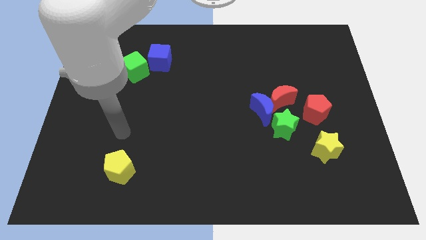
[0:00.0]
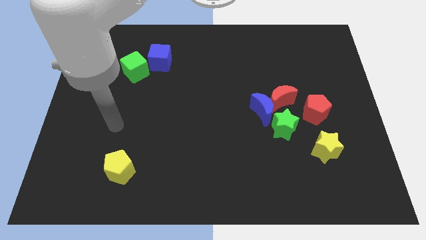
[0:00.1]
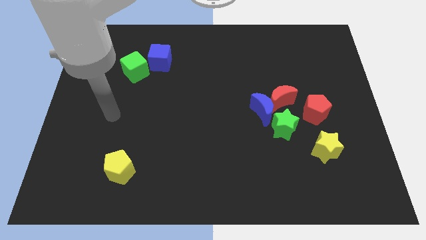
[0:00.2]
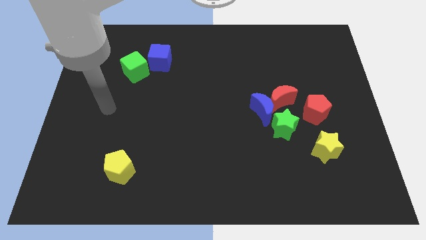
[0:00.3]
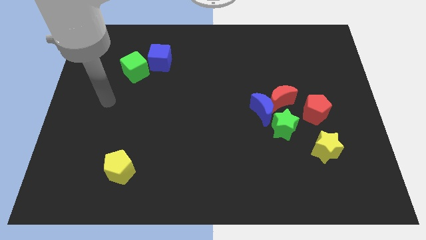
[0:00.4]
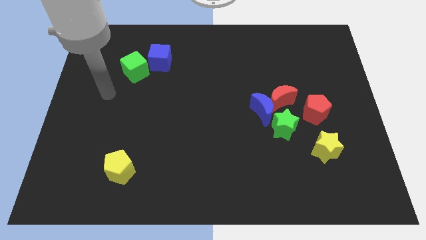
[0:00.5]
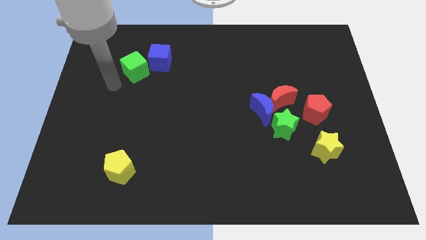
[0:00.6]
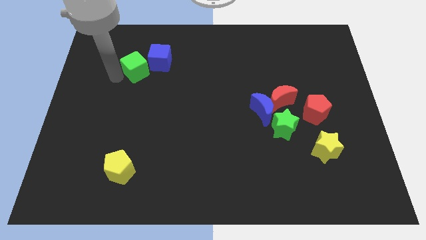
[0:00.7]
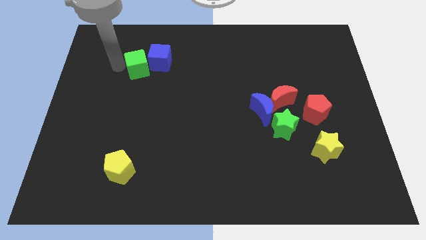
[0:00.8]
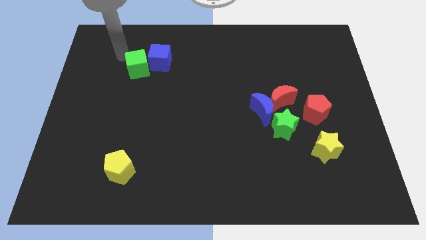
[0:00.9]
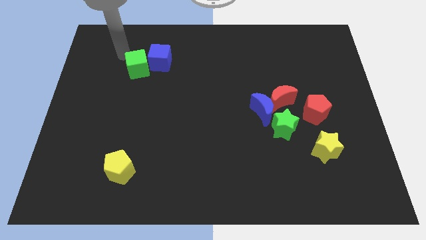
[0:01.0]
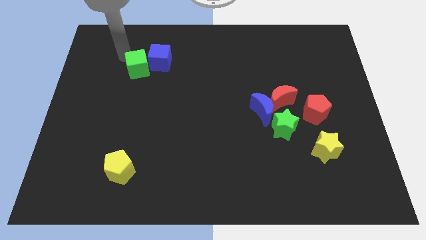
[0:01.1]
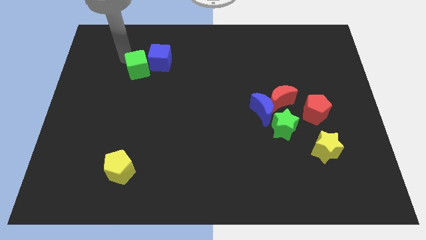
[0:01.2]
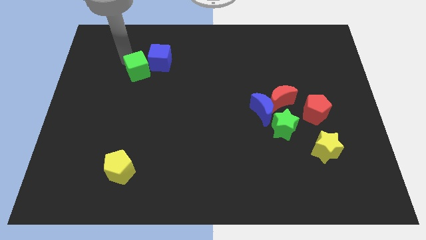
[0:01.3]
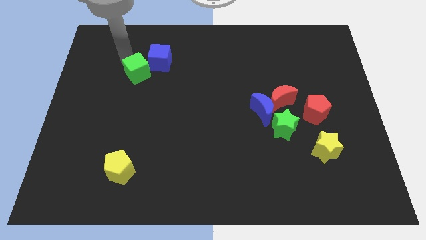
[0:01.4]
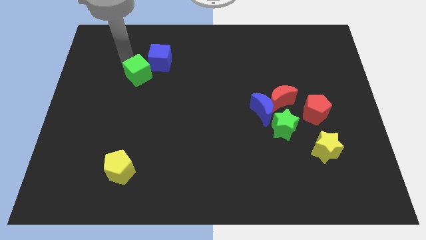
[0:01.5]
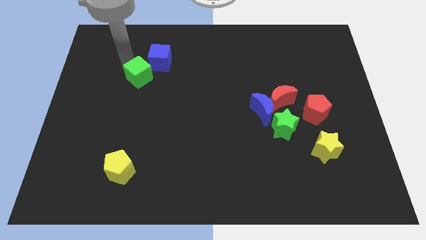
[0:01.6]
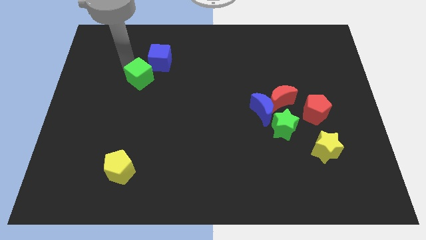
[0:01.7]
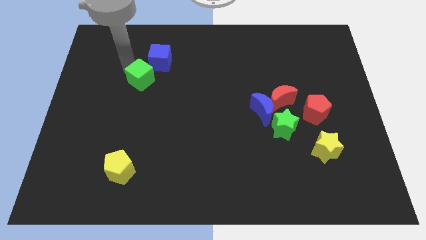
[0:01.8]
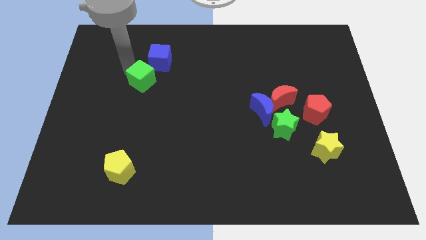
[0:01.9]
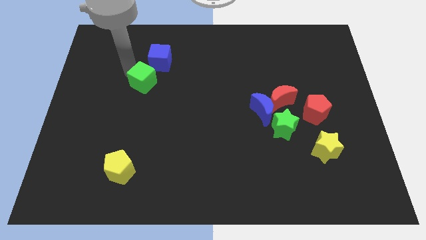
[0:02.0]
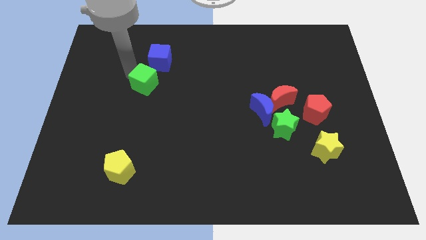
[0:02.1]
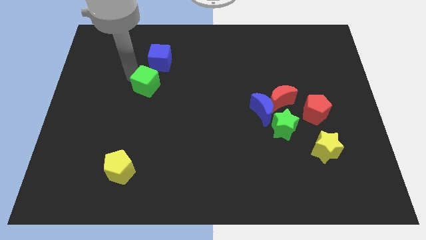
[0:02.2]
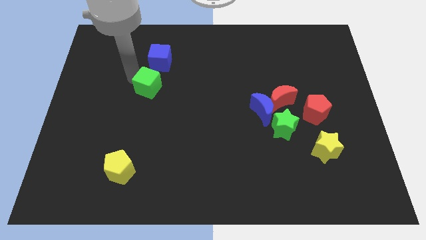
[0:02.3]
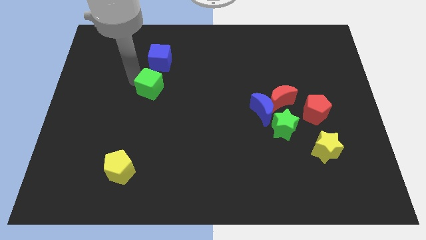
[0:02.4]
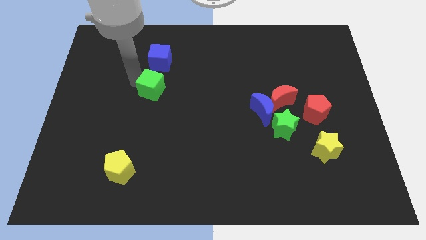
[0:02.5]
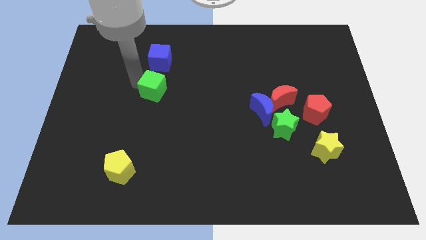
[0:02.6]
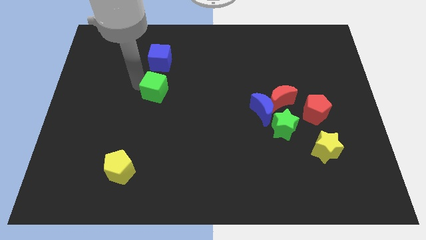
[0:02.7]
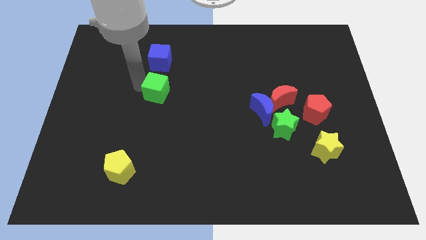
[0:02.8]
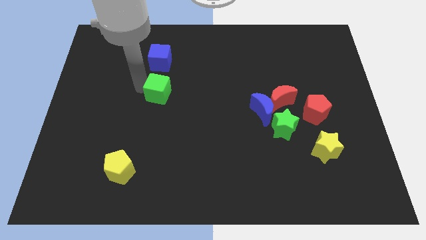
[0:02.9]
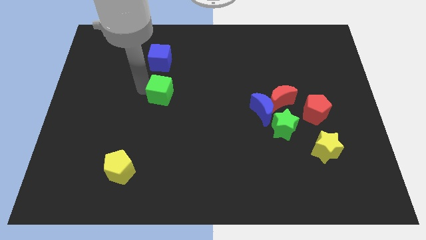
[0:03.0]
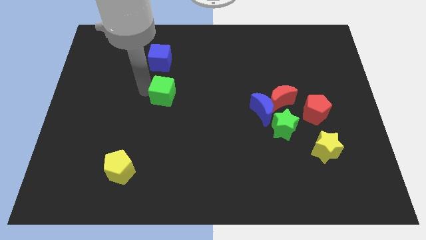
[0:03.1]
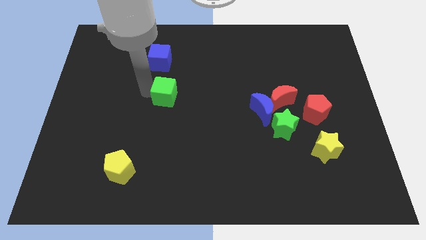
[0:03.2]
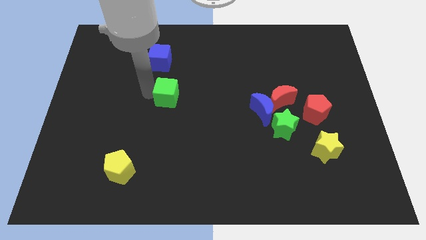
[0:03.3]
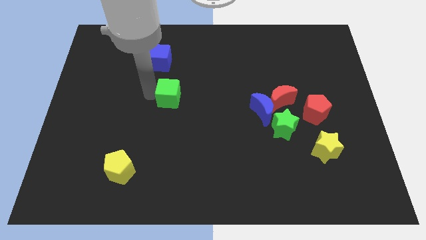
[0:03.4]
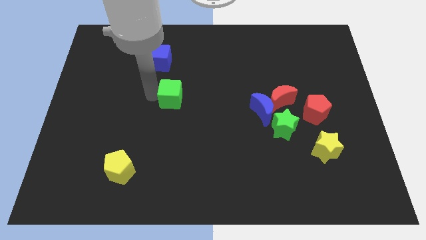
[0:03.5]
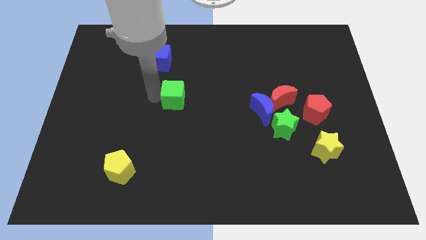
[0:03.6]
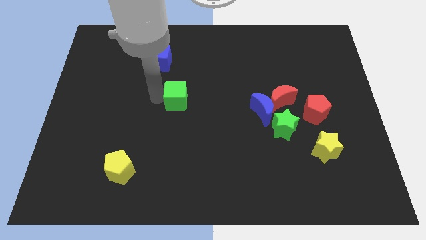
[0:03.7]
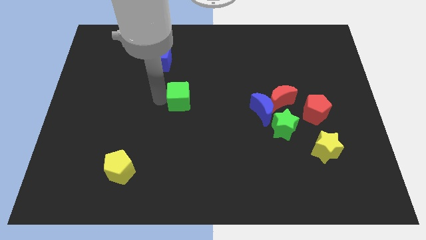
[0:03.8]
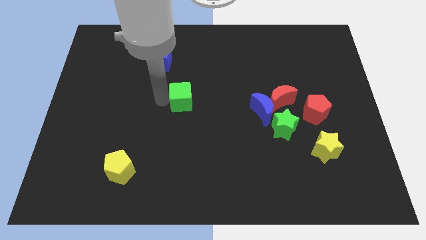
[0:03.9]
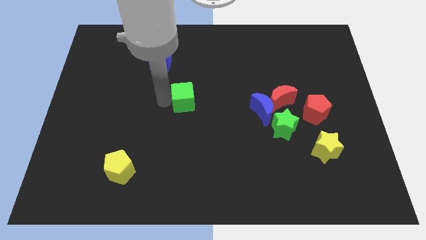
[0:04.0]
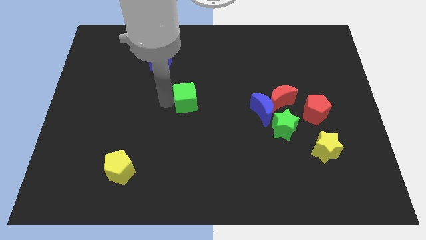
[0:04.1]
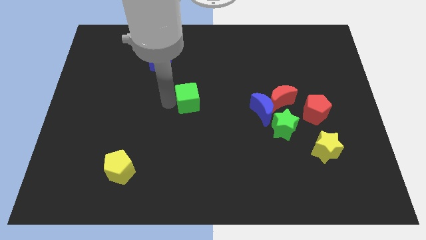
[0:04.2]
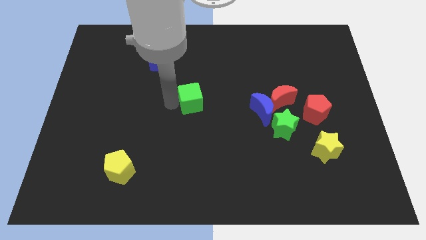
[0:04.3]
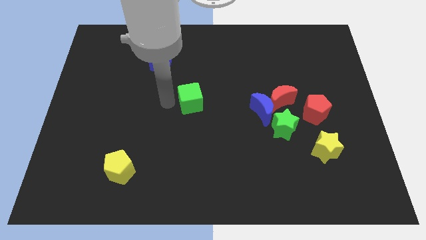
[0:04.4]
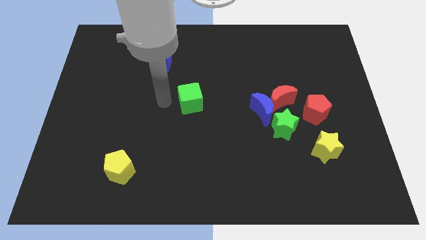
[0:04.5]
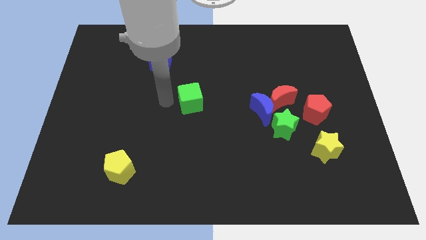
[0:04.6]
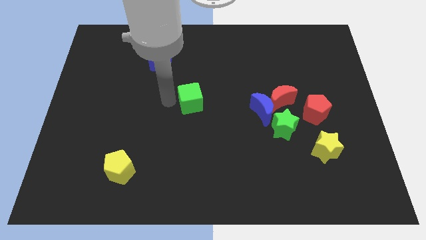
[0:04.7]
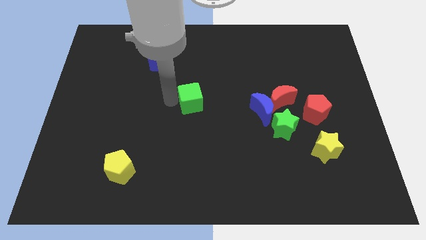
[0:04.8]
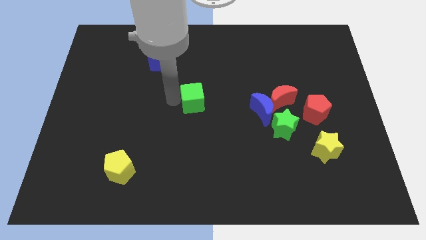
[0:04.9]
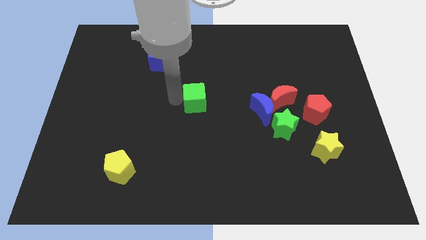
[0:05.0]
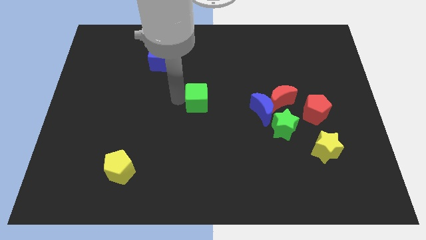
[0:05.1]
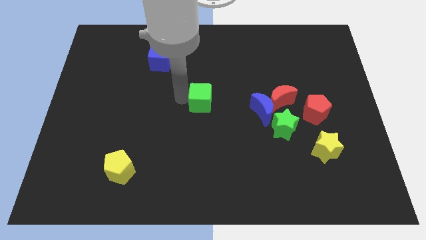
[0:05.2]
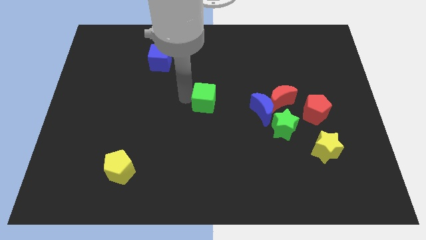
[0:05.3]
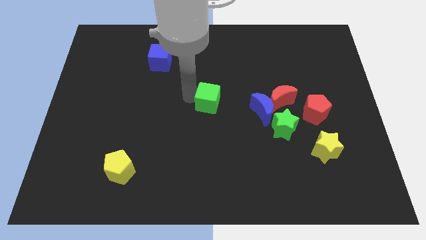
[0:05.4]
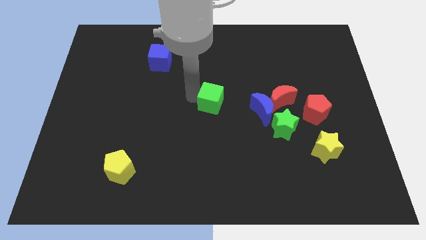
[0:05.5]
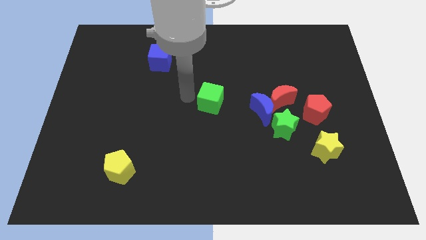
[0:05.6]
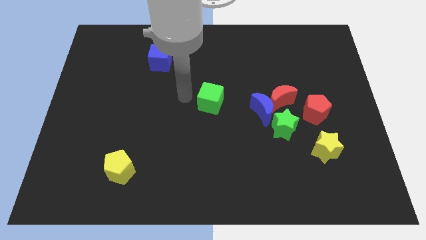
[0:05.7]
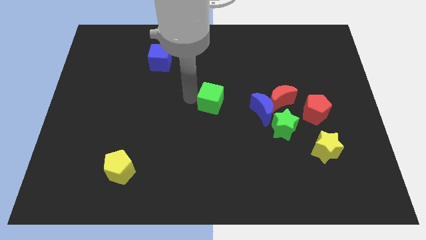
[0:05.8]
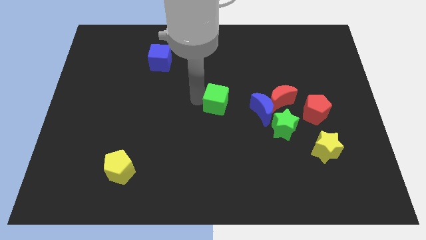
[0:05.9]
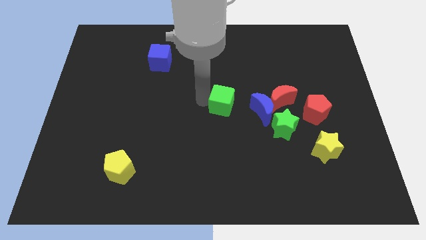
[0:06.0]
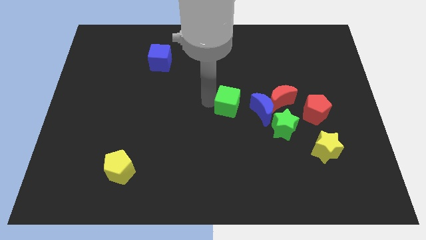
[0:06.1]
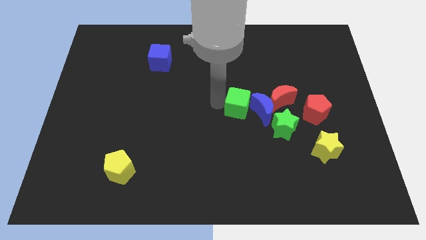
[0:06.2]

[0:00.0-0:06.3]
move the green cube close to the blue moon

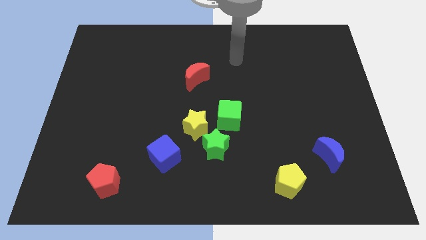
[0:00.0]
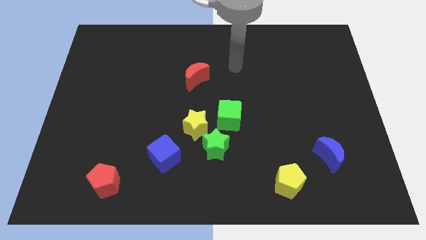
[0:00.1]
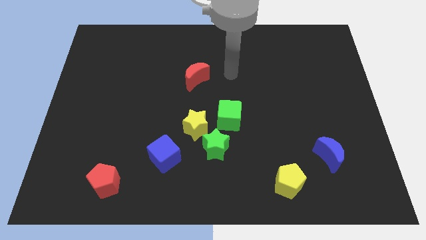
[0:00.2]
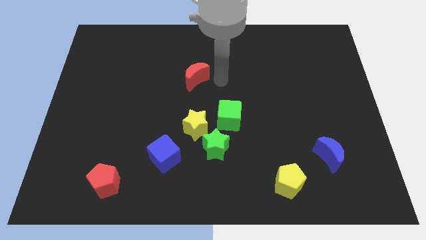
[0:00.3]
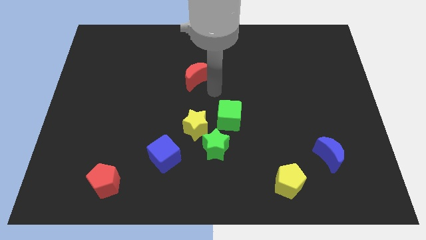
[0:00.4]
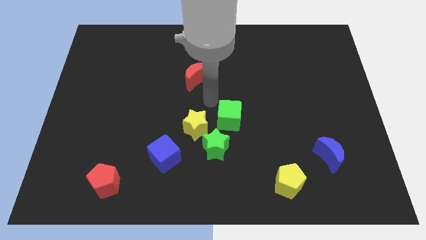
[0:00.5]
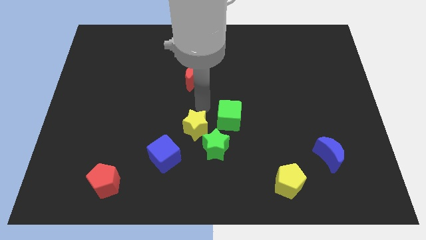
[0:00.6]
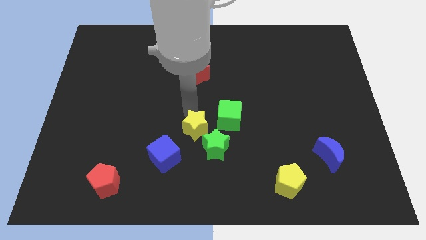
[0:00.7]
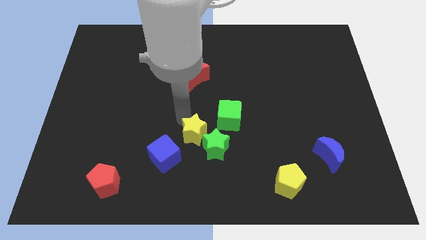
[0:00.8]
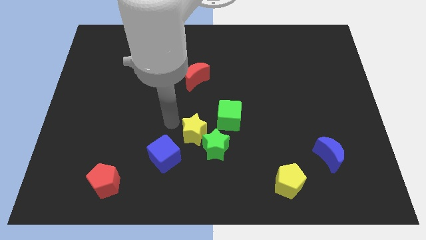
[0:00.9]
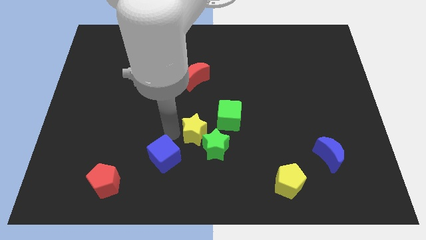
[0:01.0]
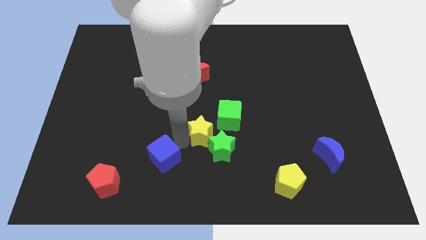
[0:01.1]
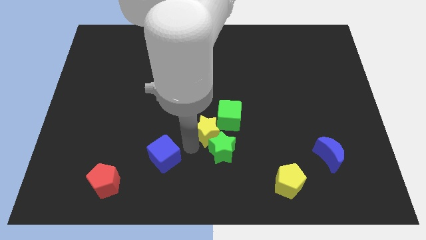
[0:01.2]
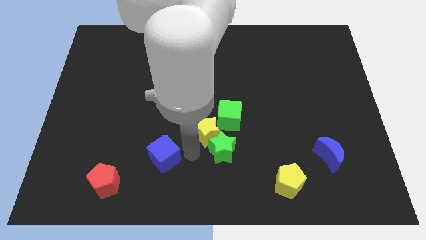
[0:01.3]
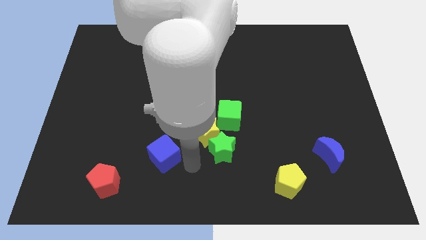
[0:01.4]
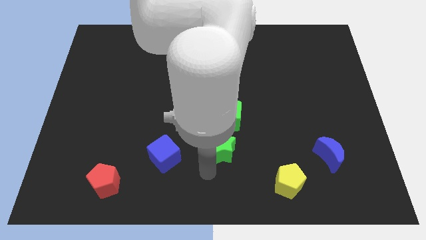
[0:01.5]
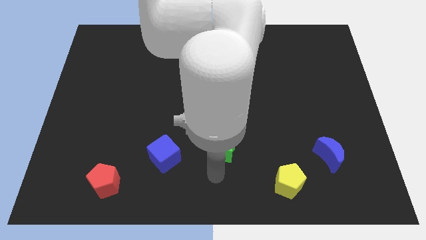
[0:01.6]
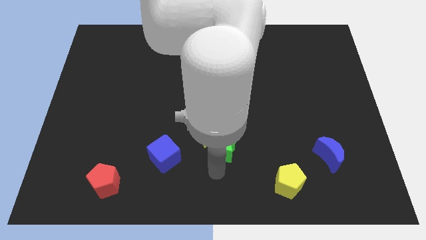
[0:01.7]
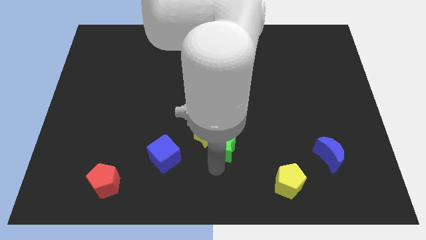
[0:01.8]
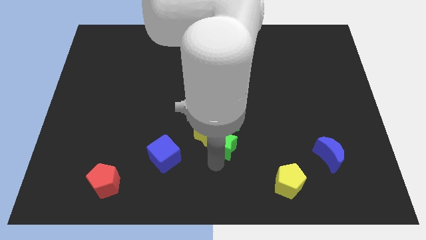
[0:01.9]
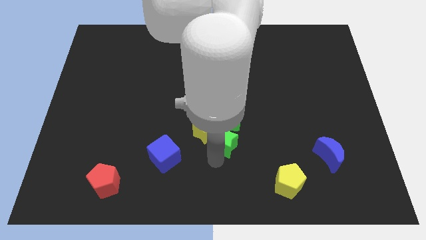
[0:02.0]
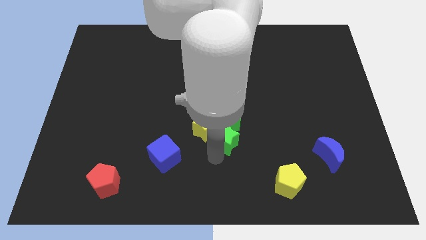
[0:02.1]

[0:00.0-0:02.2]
slide the green star close to the green cube
